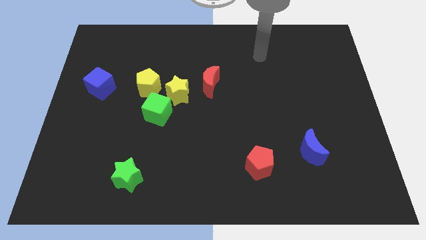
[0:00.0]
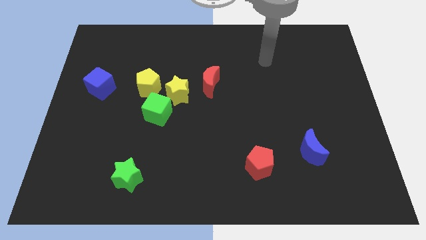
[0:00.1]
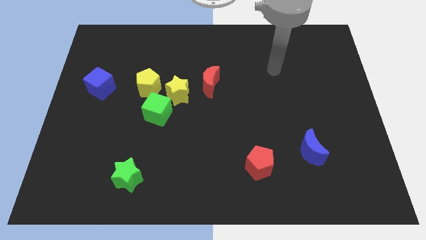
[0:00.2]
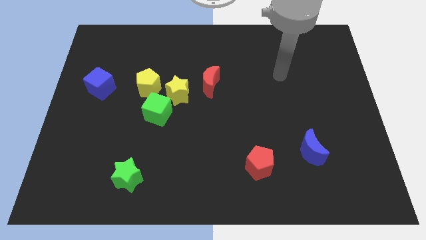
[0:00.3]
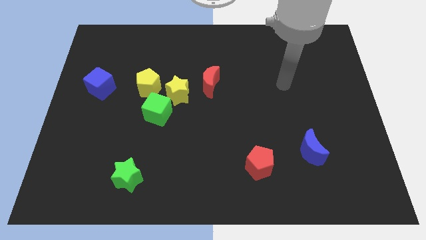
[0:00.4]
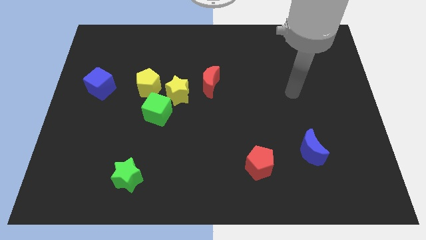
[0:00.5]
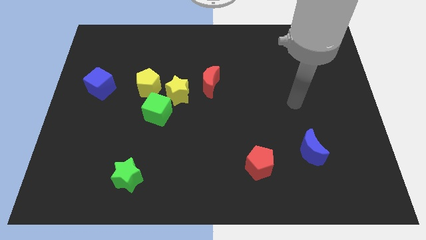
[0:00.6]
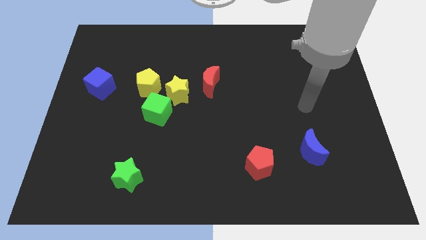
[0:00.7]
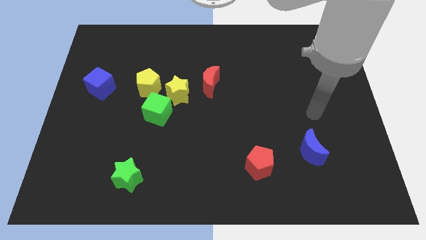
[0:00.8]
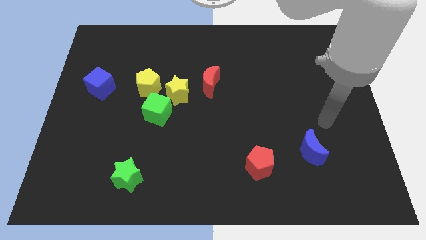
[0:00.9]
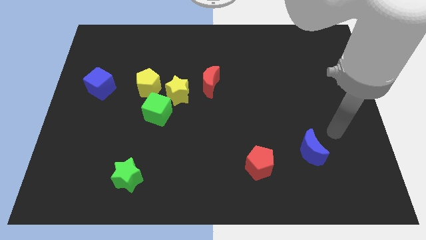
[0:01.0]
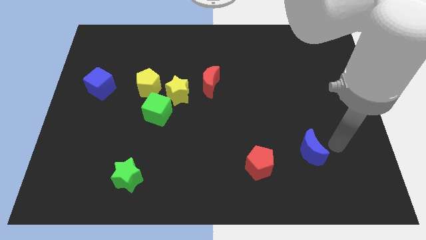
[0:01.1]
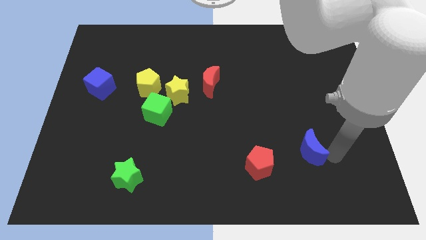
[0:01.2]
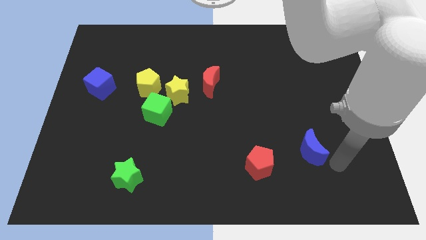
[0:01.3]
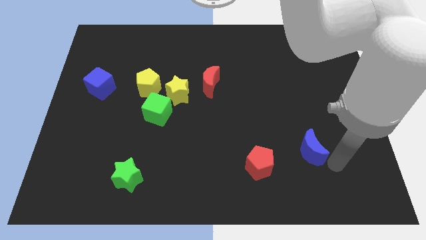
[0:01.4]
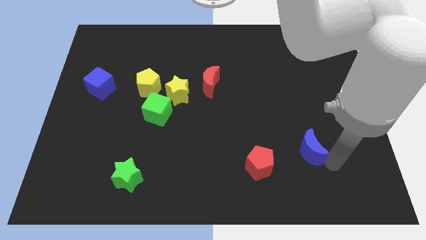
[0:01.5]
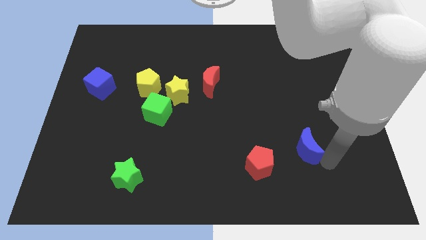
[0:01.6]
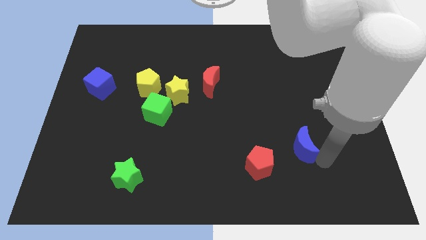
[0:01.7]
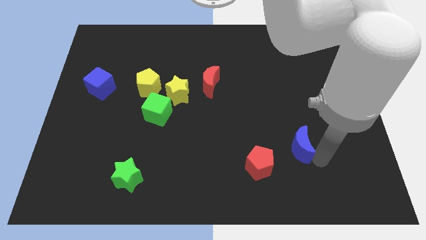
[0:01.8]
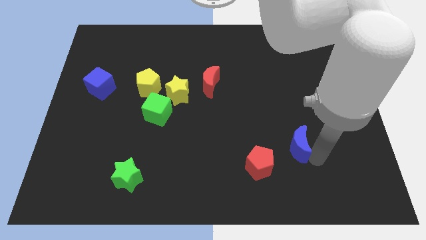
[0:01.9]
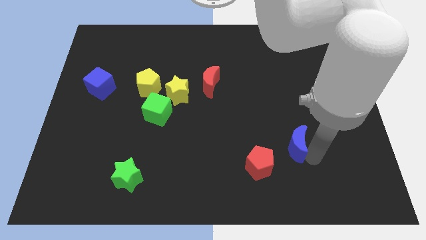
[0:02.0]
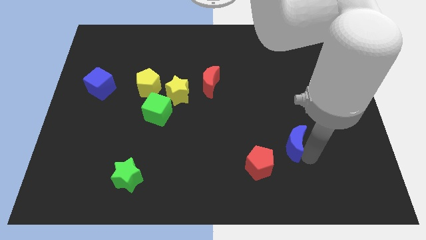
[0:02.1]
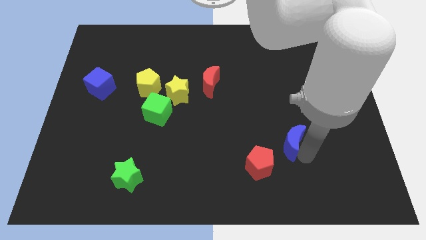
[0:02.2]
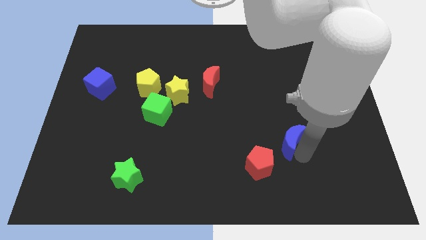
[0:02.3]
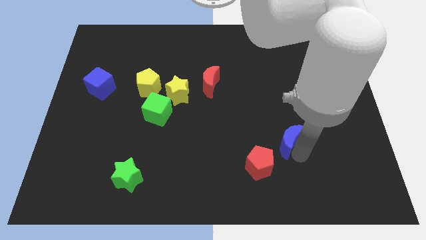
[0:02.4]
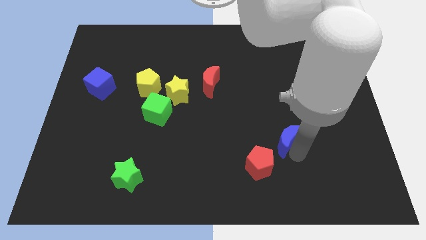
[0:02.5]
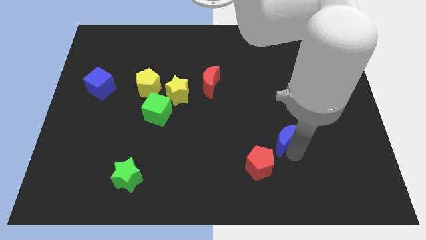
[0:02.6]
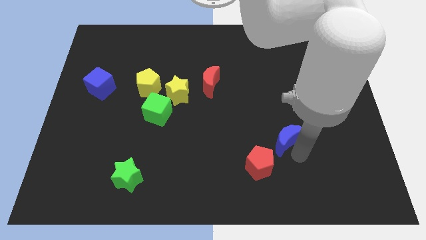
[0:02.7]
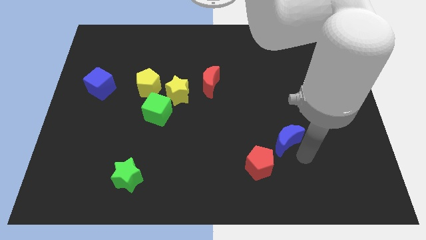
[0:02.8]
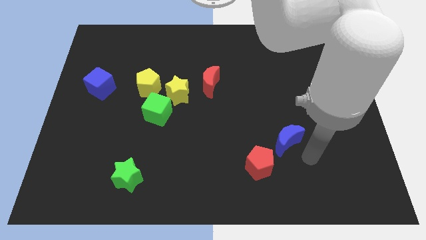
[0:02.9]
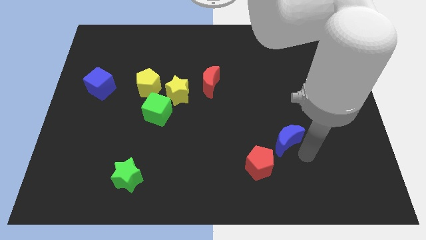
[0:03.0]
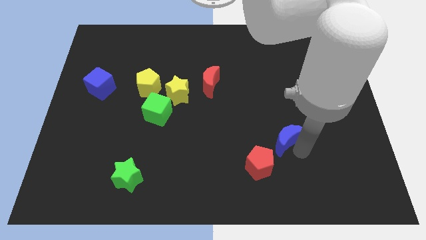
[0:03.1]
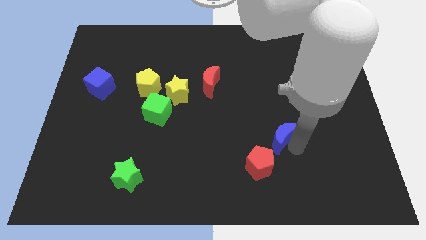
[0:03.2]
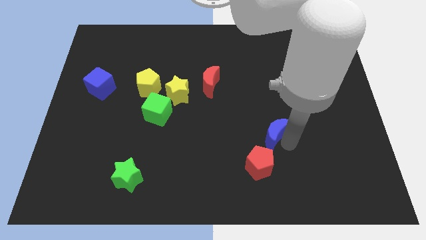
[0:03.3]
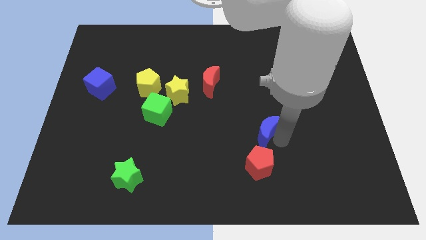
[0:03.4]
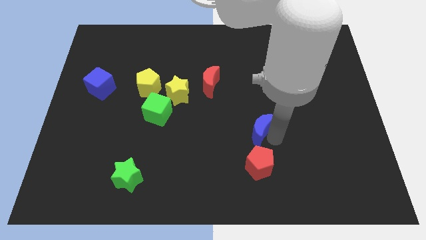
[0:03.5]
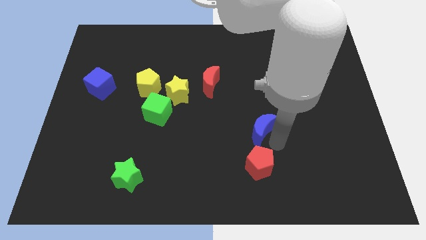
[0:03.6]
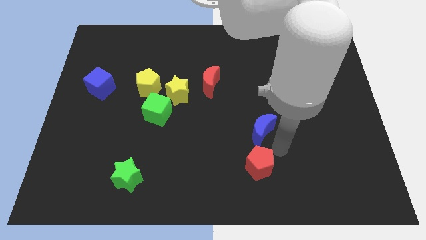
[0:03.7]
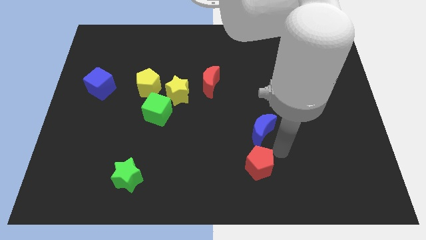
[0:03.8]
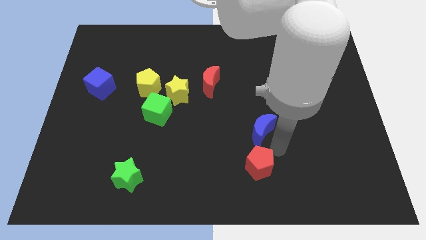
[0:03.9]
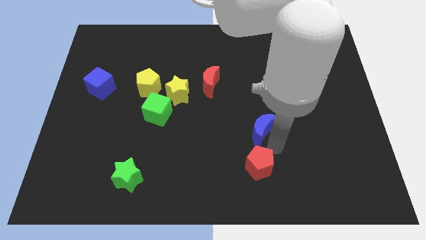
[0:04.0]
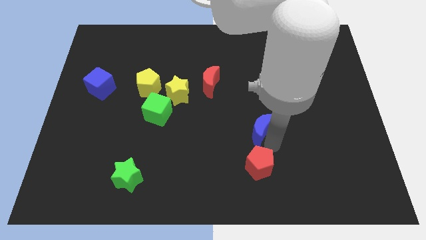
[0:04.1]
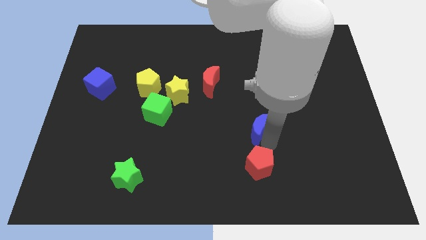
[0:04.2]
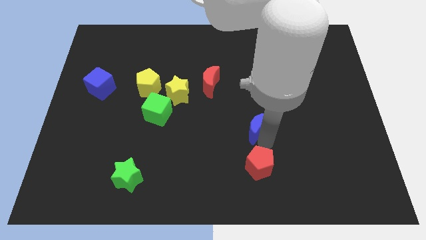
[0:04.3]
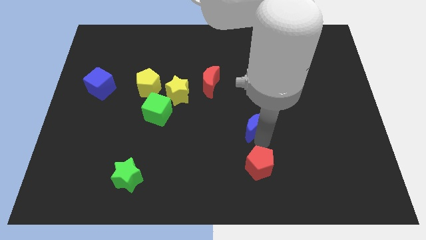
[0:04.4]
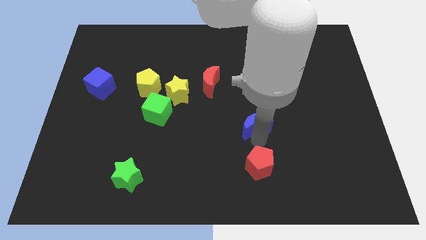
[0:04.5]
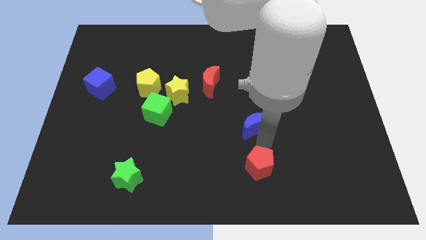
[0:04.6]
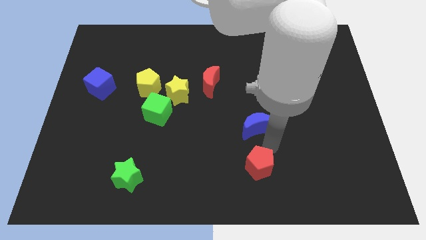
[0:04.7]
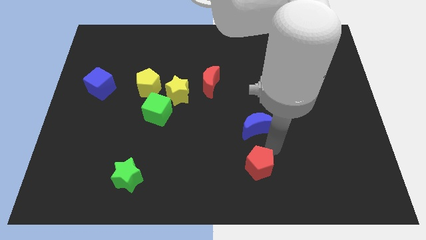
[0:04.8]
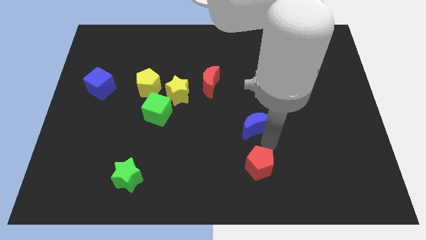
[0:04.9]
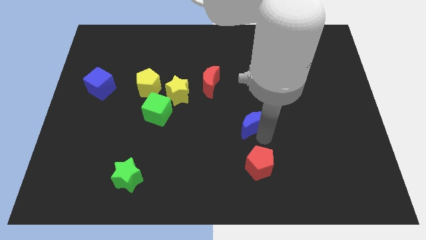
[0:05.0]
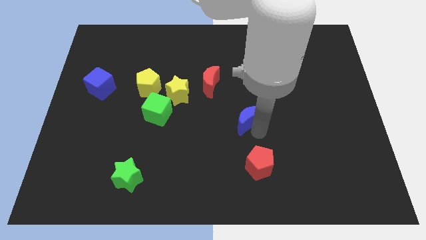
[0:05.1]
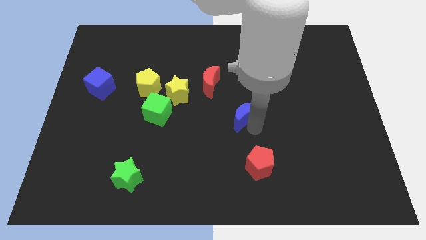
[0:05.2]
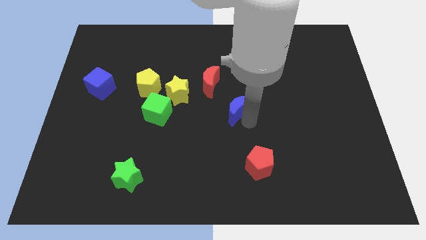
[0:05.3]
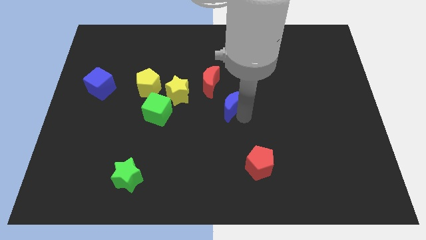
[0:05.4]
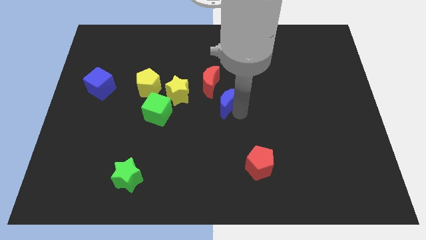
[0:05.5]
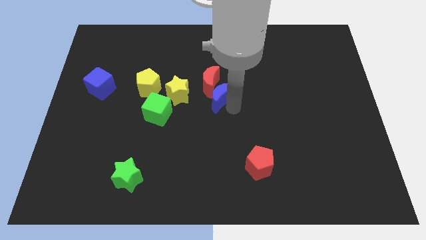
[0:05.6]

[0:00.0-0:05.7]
slide the blue moon close to the red moon

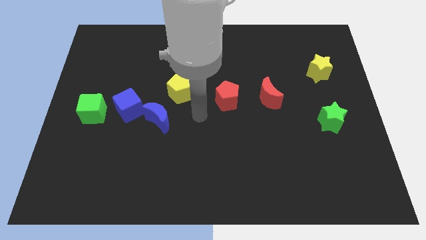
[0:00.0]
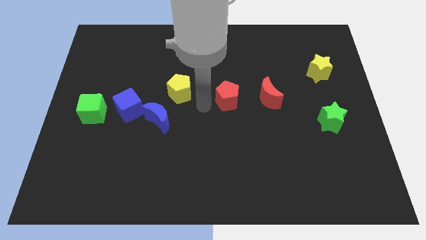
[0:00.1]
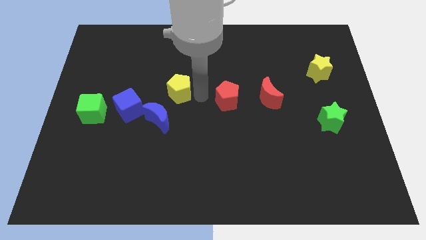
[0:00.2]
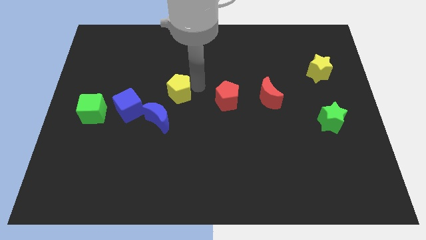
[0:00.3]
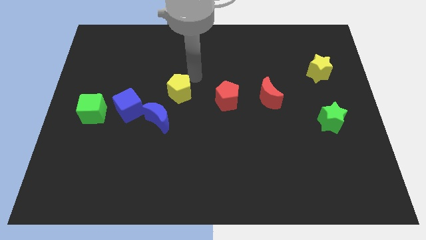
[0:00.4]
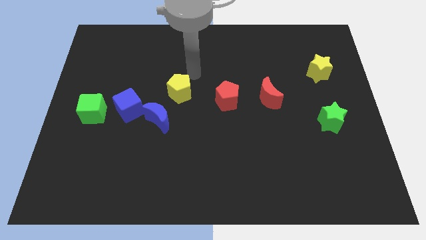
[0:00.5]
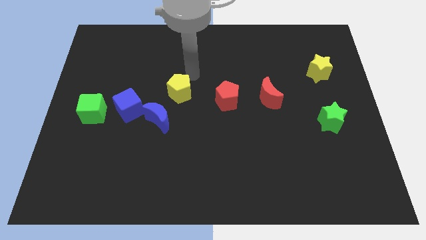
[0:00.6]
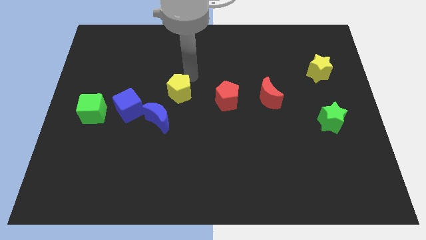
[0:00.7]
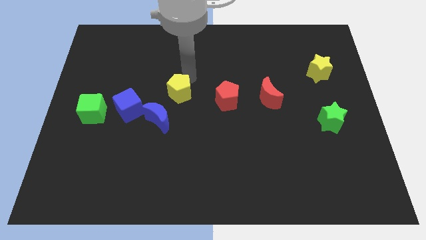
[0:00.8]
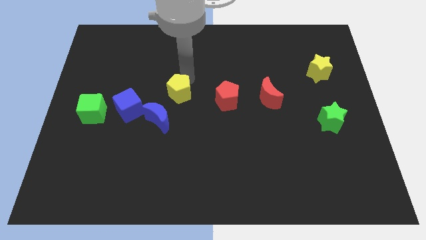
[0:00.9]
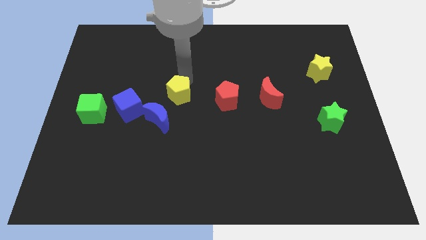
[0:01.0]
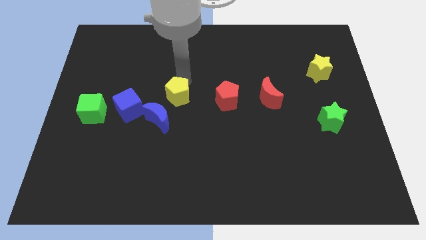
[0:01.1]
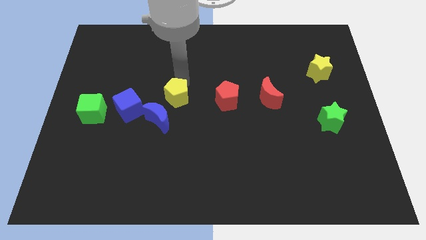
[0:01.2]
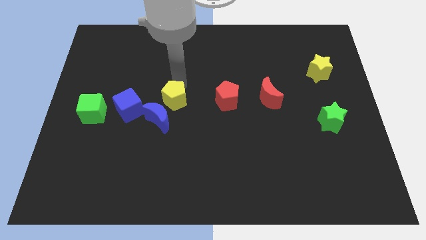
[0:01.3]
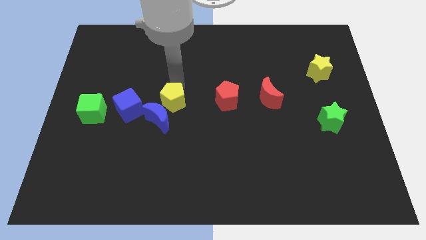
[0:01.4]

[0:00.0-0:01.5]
push the yellow pentagon next to the blue moon

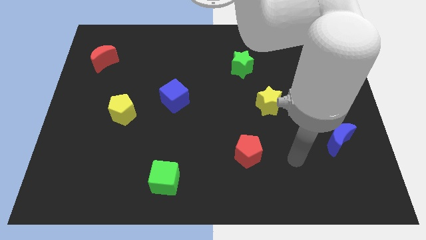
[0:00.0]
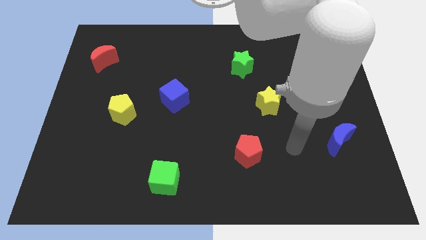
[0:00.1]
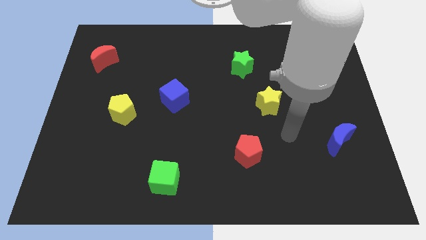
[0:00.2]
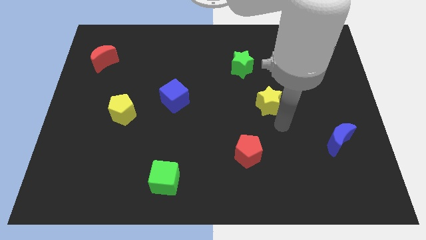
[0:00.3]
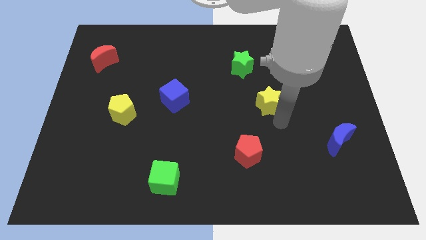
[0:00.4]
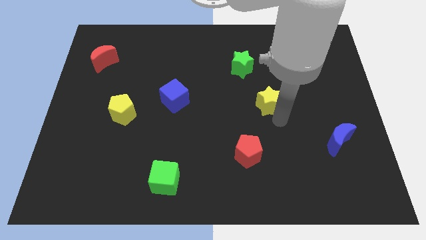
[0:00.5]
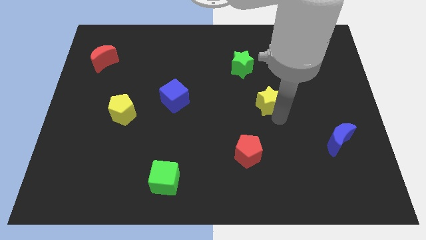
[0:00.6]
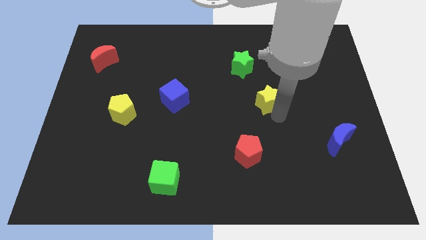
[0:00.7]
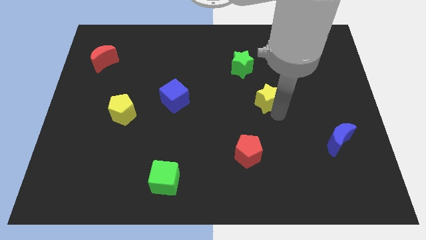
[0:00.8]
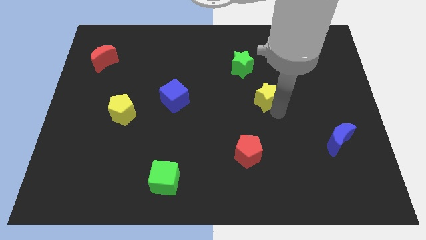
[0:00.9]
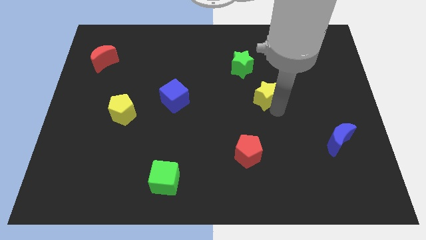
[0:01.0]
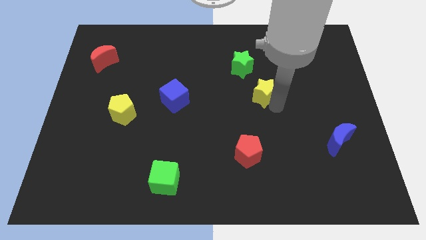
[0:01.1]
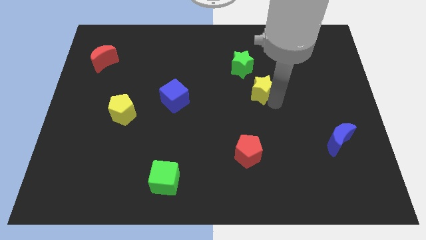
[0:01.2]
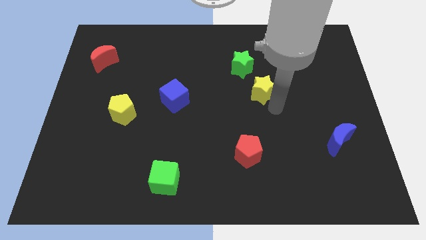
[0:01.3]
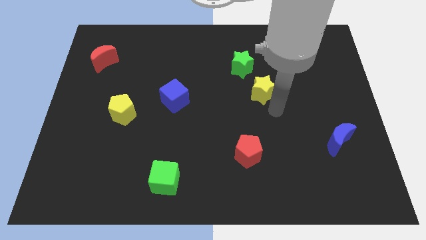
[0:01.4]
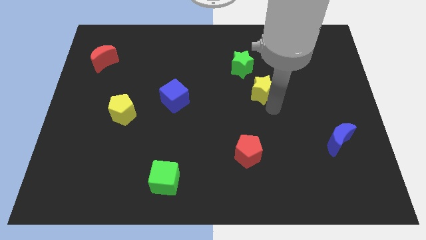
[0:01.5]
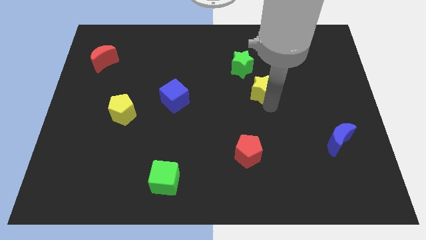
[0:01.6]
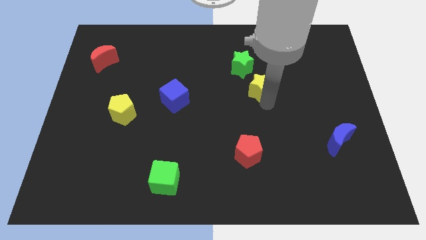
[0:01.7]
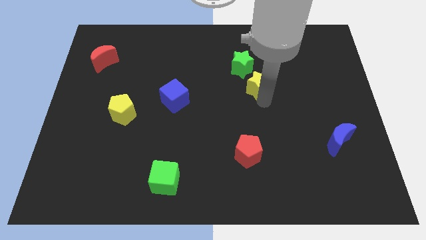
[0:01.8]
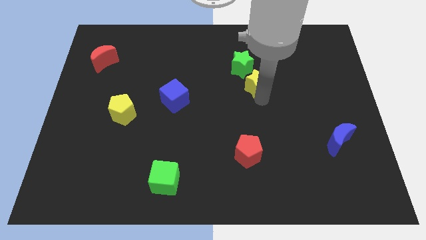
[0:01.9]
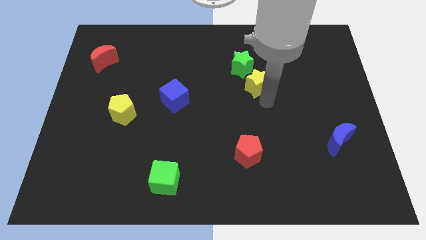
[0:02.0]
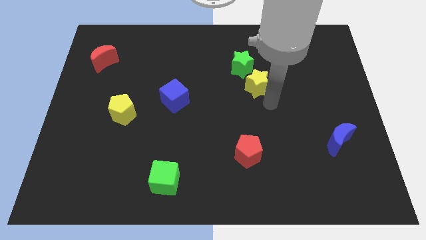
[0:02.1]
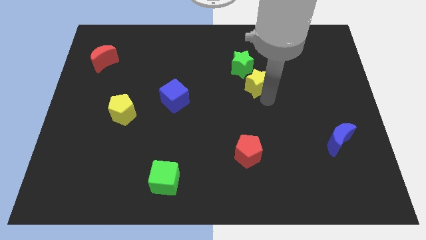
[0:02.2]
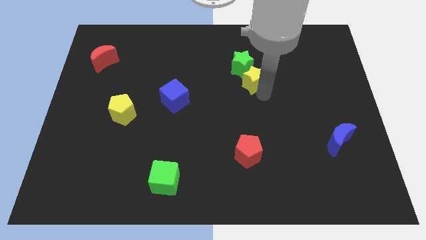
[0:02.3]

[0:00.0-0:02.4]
push the yellow star next to the green star
